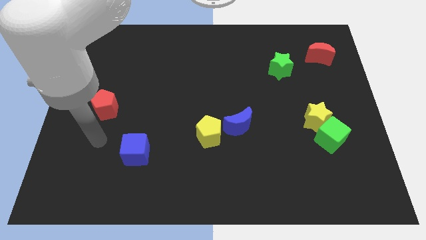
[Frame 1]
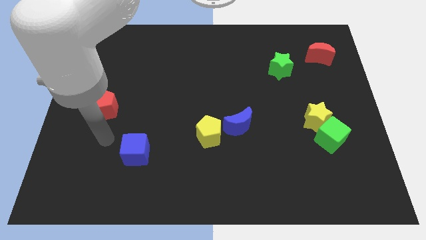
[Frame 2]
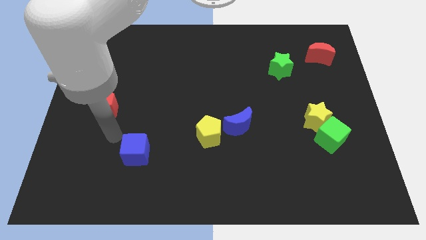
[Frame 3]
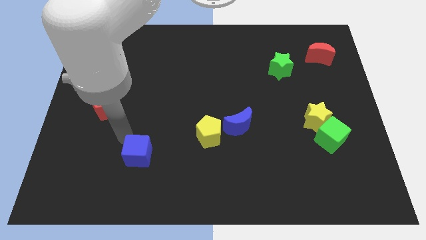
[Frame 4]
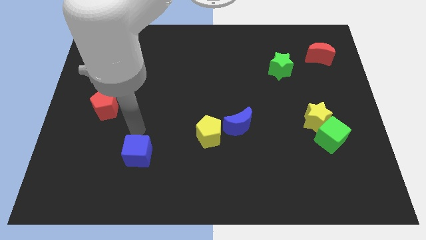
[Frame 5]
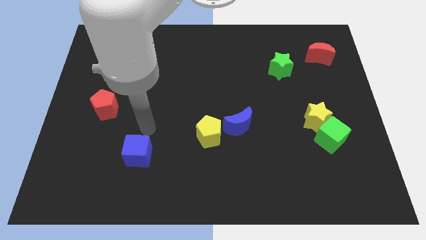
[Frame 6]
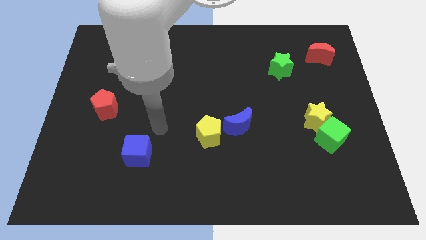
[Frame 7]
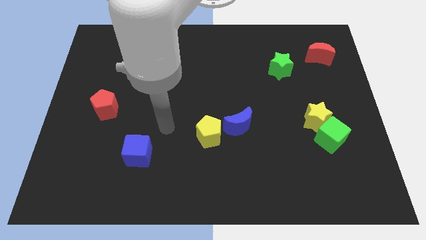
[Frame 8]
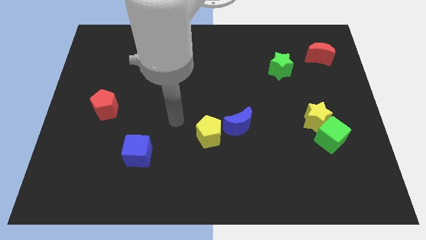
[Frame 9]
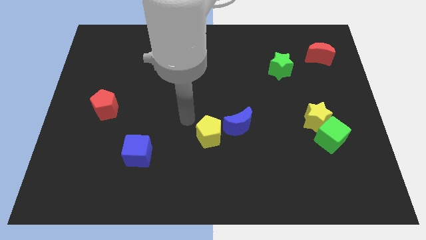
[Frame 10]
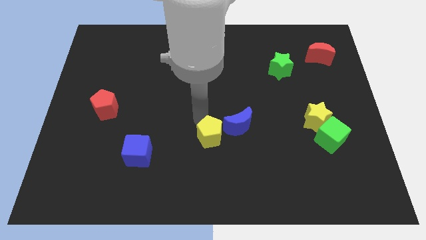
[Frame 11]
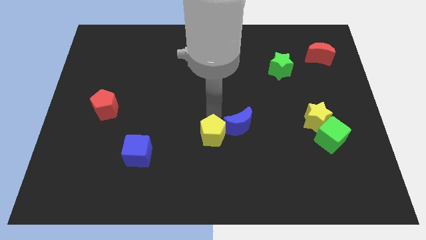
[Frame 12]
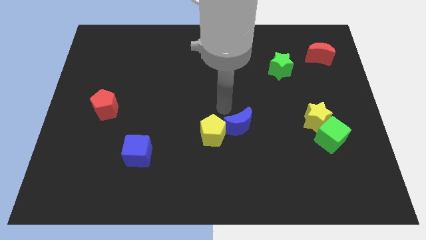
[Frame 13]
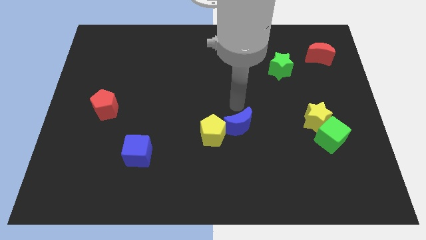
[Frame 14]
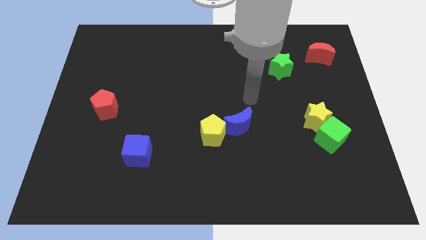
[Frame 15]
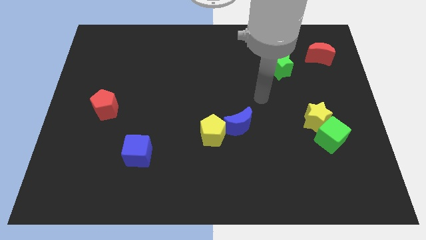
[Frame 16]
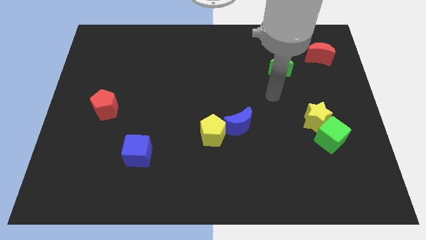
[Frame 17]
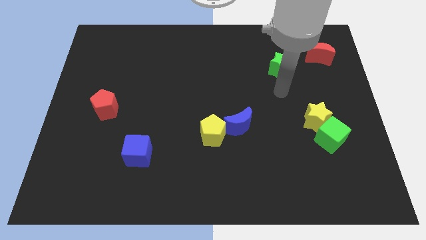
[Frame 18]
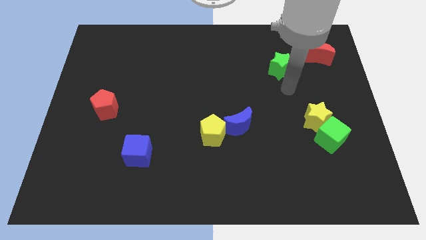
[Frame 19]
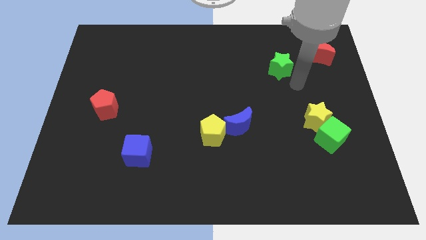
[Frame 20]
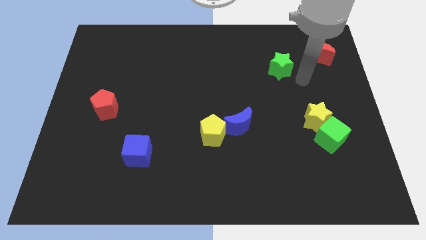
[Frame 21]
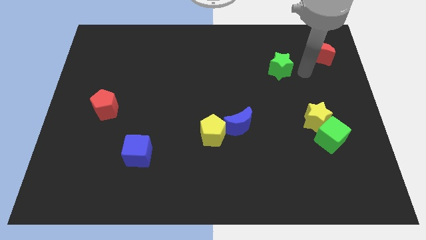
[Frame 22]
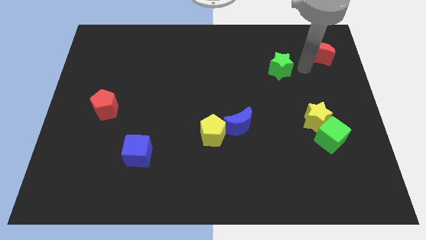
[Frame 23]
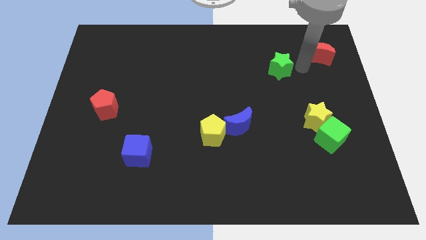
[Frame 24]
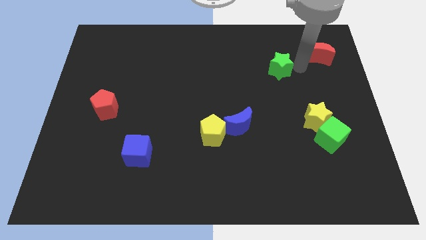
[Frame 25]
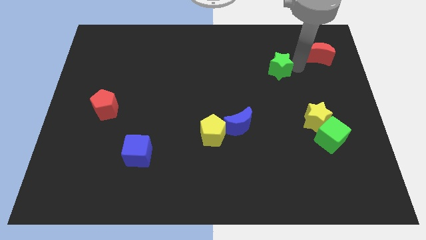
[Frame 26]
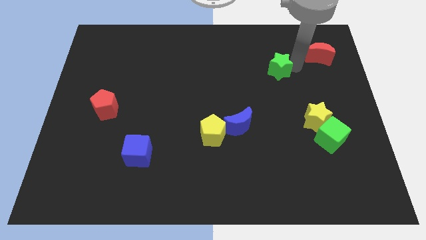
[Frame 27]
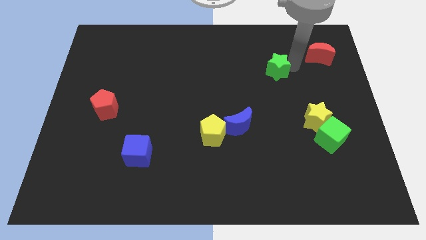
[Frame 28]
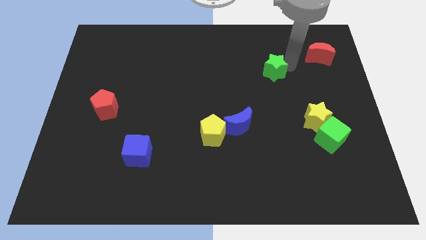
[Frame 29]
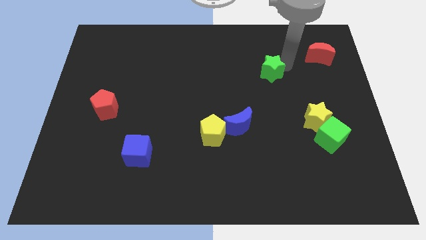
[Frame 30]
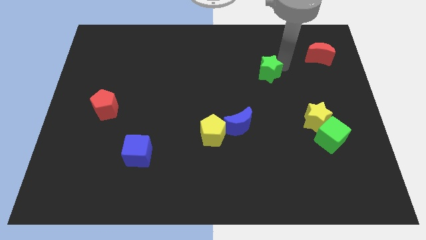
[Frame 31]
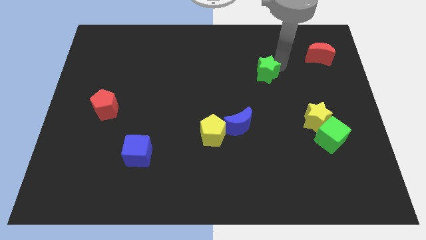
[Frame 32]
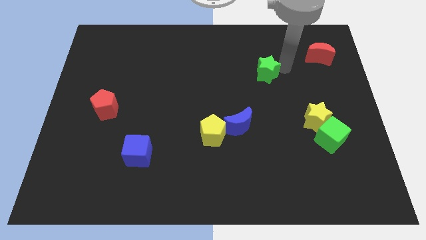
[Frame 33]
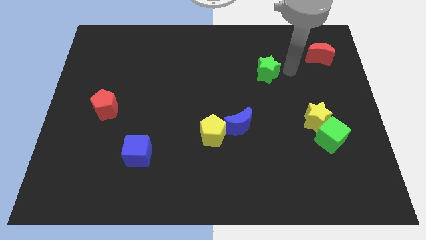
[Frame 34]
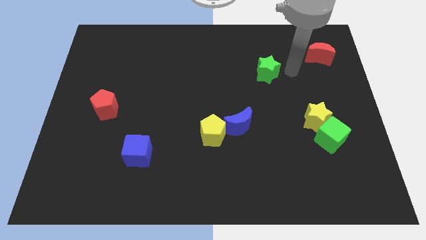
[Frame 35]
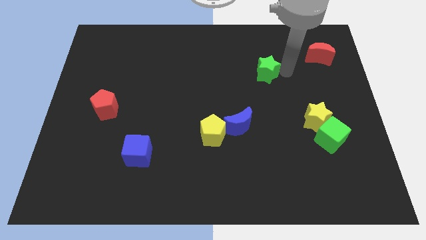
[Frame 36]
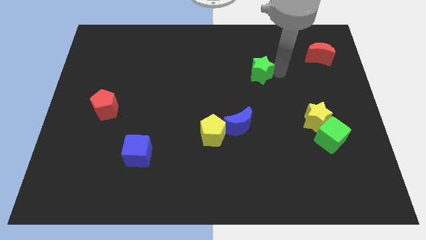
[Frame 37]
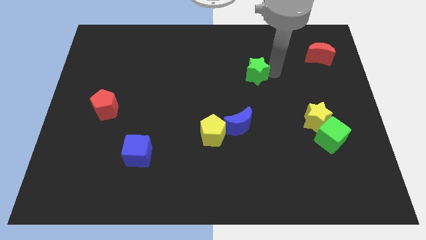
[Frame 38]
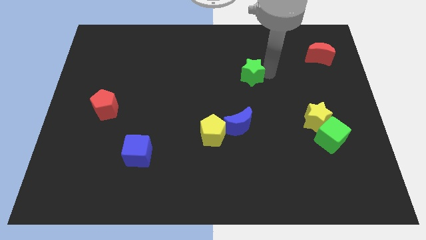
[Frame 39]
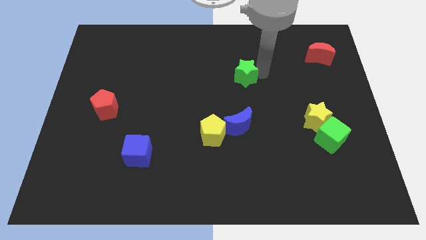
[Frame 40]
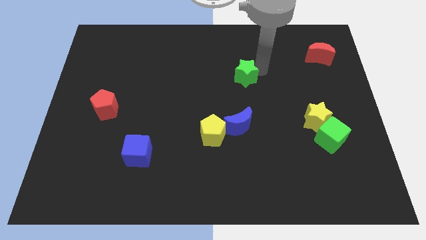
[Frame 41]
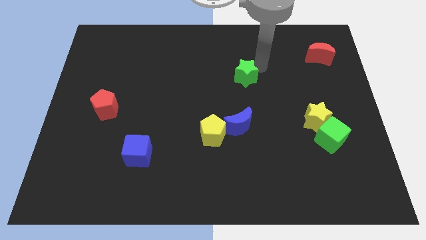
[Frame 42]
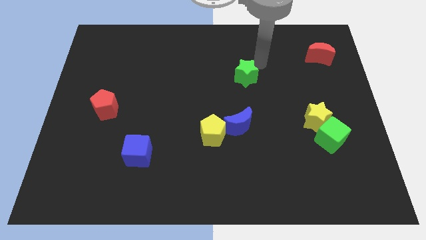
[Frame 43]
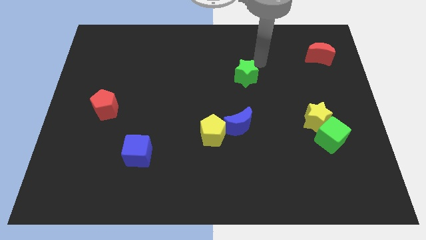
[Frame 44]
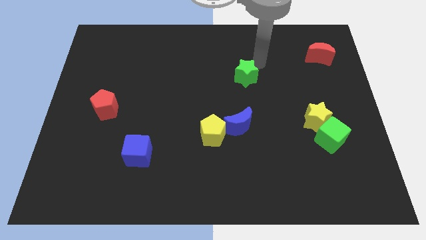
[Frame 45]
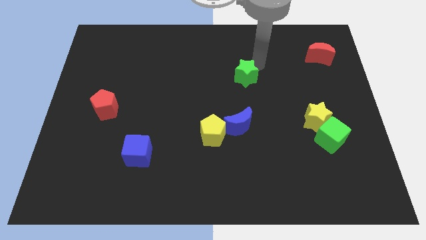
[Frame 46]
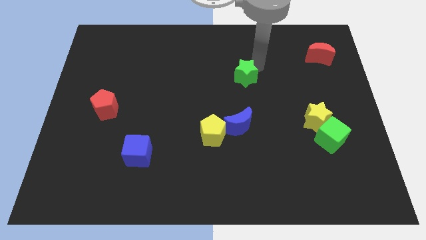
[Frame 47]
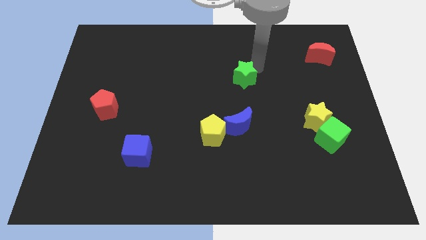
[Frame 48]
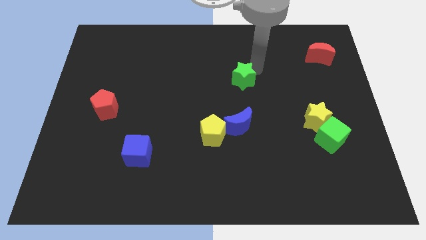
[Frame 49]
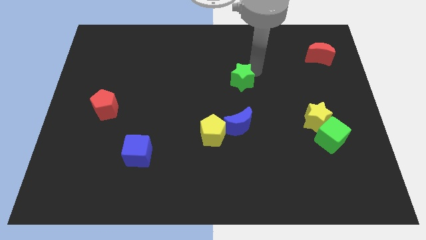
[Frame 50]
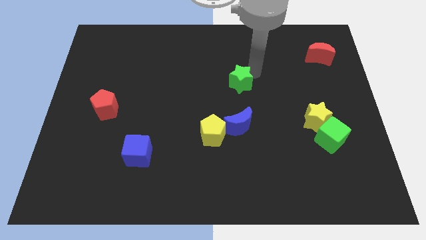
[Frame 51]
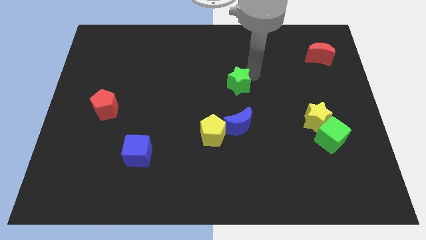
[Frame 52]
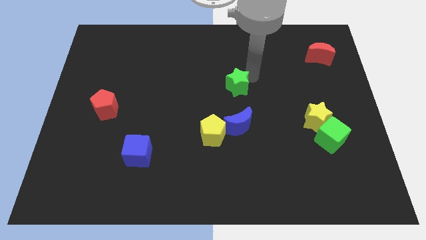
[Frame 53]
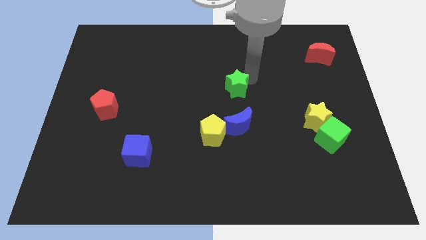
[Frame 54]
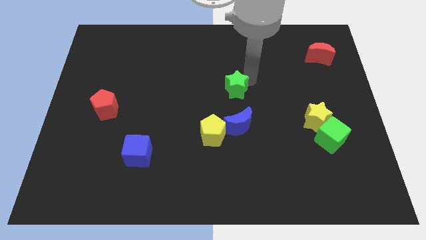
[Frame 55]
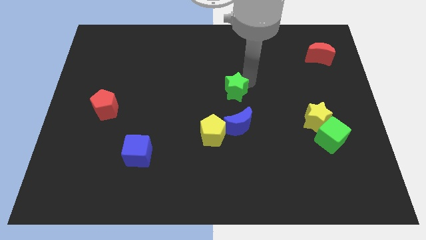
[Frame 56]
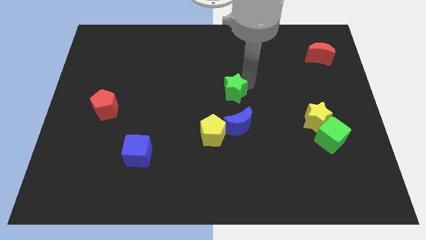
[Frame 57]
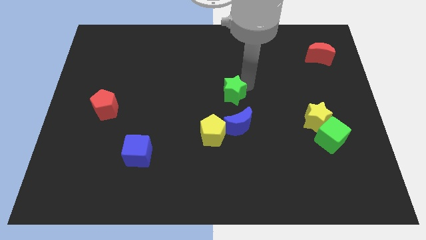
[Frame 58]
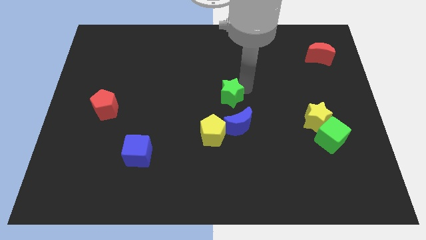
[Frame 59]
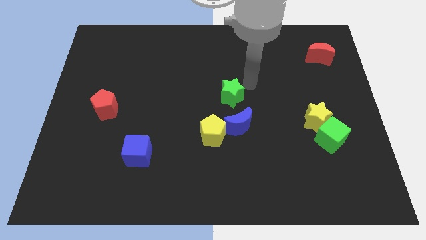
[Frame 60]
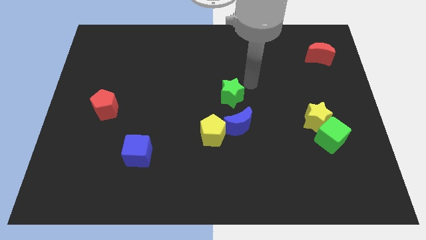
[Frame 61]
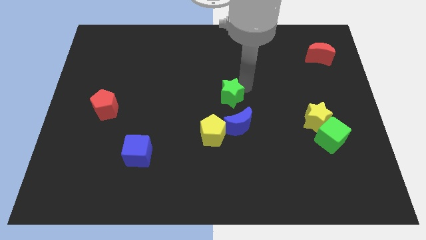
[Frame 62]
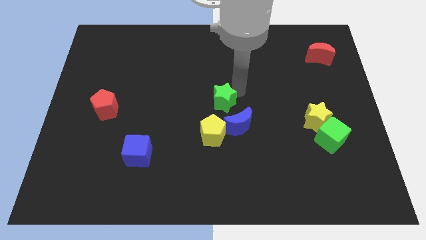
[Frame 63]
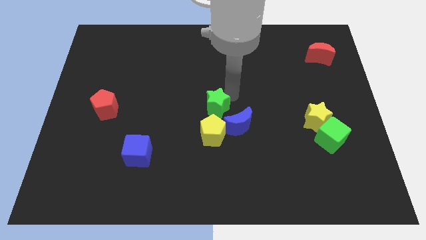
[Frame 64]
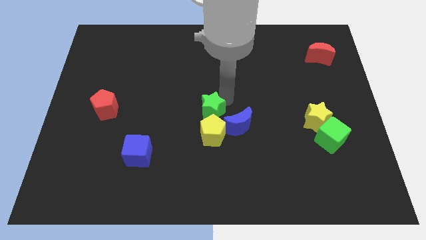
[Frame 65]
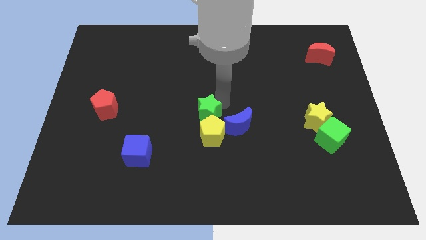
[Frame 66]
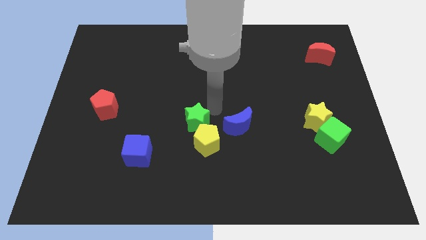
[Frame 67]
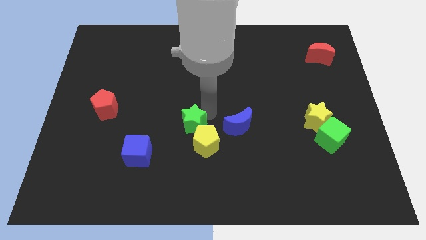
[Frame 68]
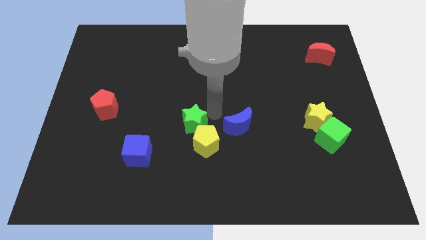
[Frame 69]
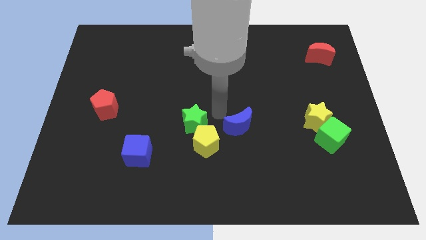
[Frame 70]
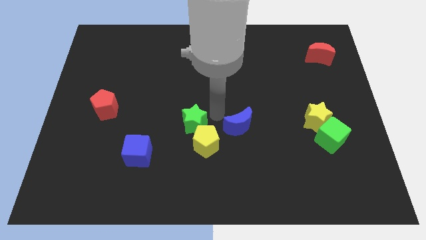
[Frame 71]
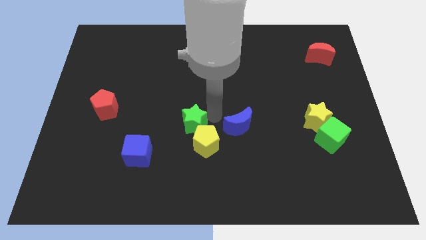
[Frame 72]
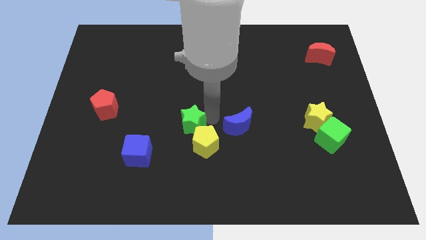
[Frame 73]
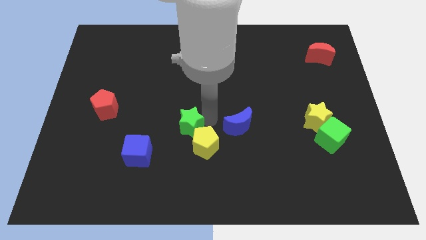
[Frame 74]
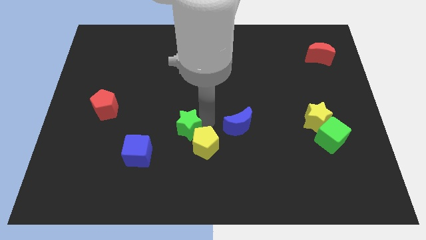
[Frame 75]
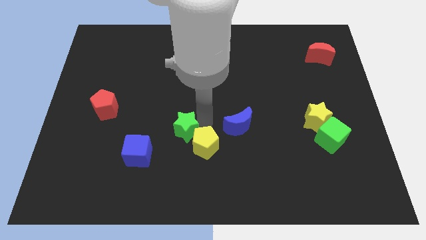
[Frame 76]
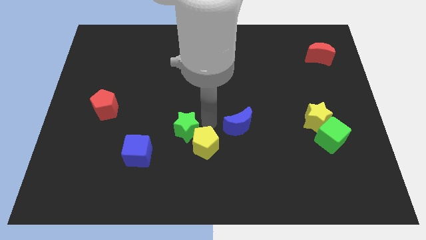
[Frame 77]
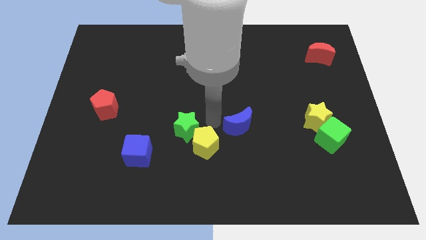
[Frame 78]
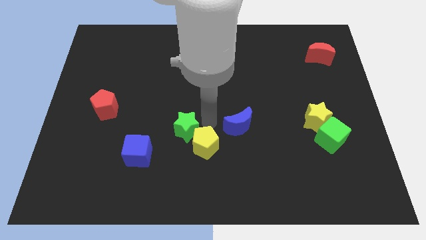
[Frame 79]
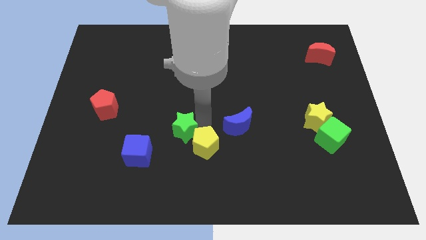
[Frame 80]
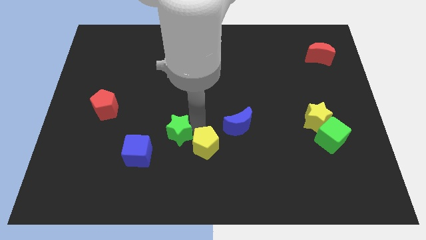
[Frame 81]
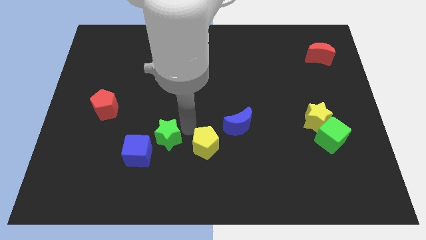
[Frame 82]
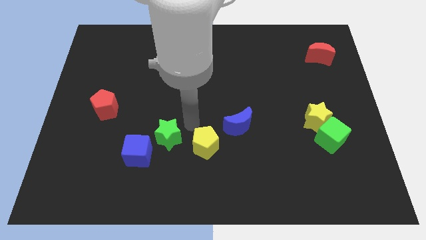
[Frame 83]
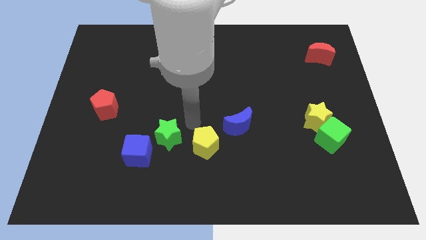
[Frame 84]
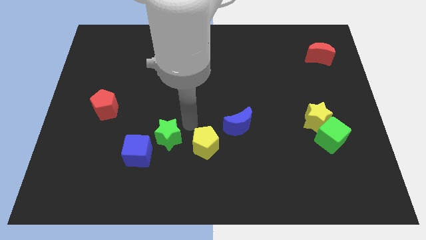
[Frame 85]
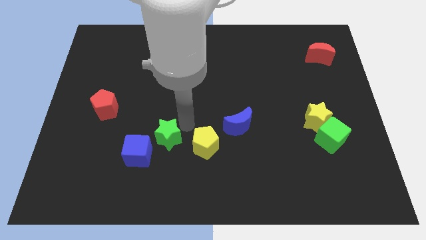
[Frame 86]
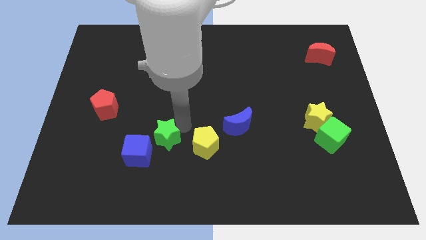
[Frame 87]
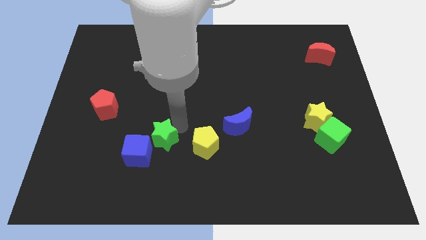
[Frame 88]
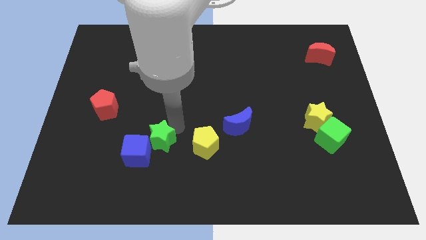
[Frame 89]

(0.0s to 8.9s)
push the green star close to the blue cube
